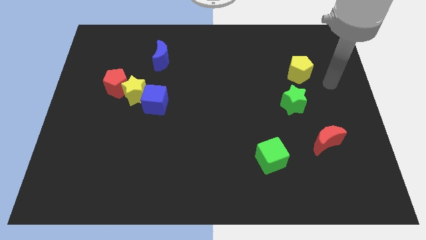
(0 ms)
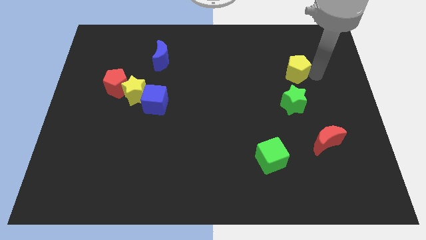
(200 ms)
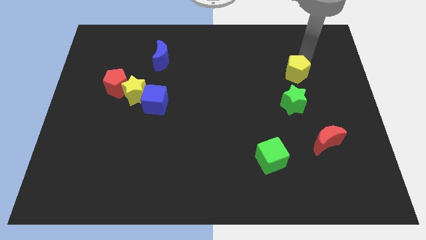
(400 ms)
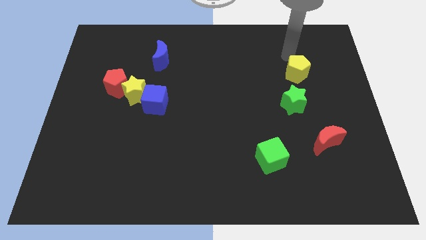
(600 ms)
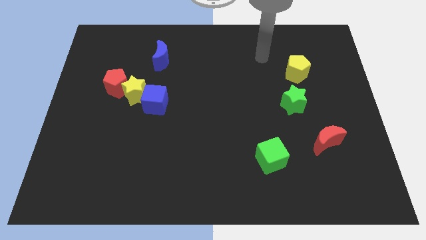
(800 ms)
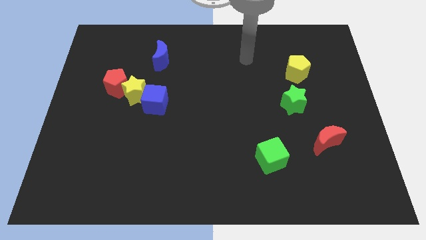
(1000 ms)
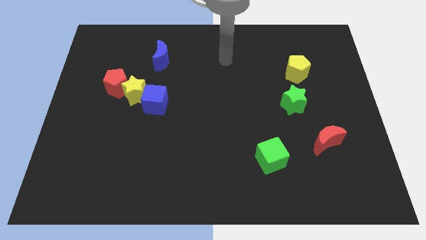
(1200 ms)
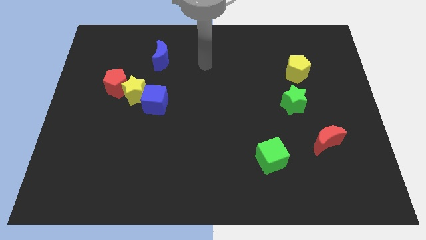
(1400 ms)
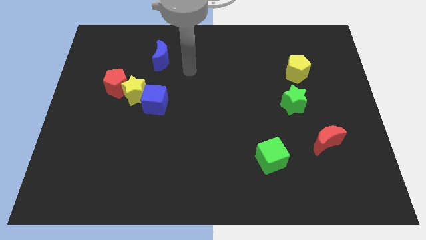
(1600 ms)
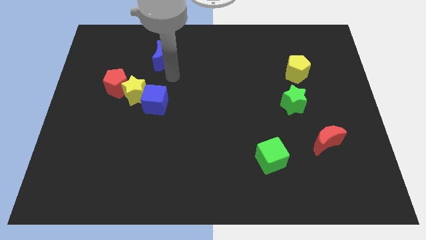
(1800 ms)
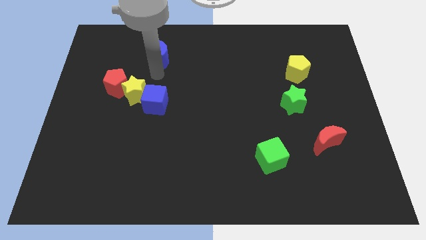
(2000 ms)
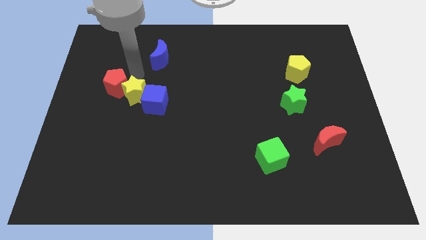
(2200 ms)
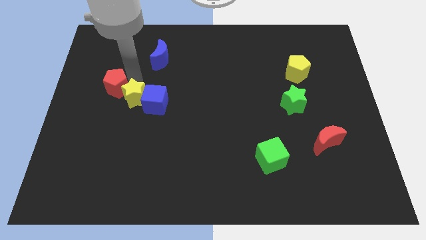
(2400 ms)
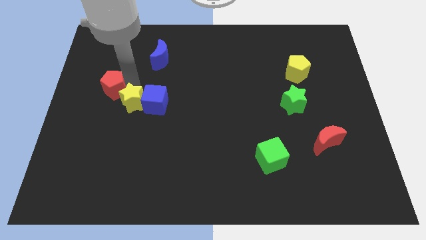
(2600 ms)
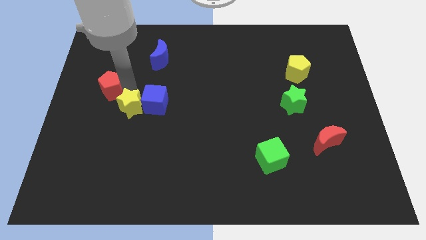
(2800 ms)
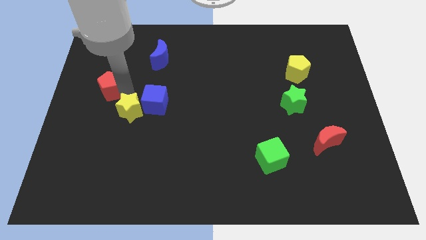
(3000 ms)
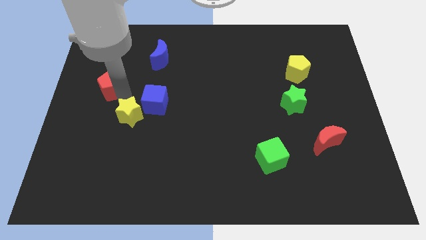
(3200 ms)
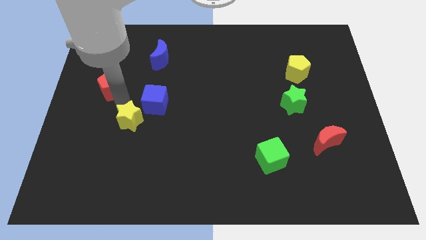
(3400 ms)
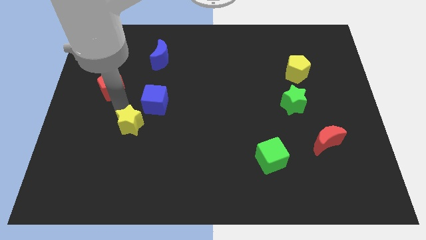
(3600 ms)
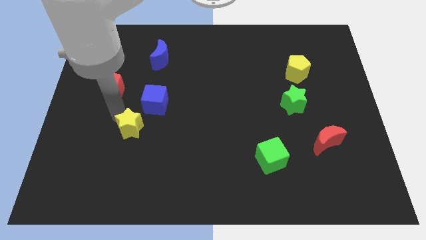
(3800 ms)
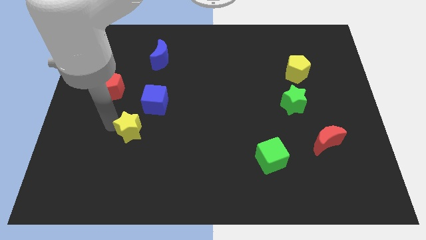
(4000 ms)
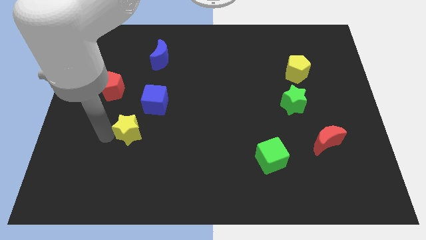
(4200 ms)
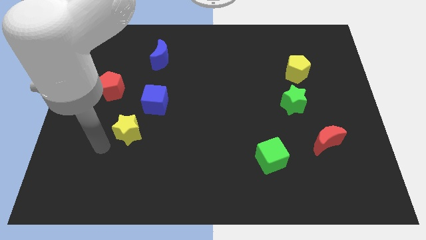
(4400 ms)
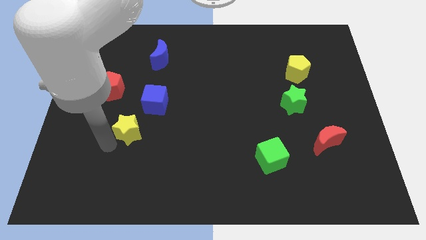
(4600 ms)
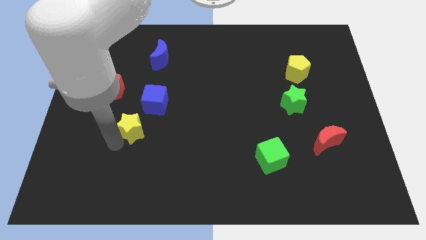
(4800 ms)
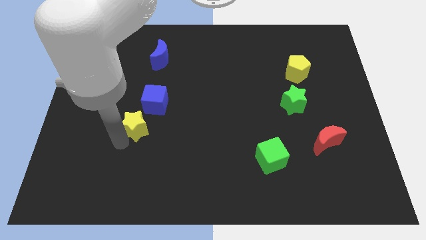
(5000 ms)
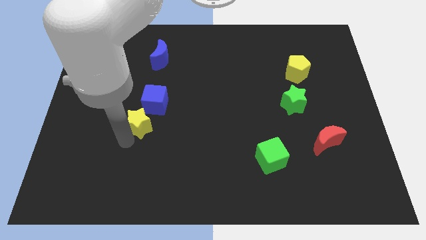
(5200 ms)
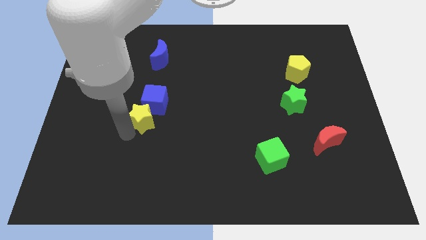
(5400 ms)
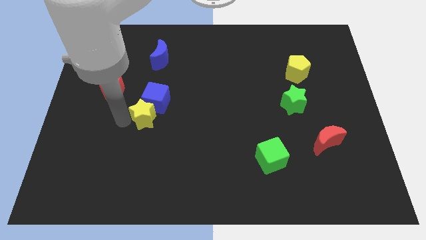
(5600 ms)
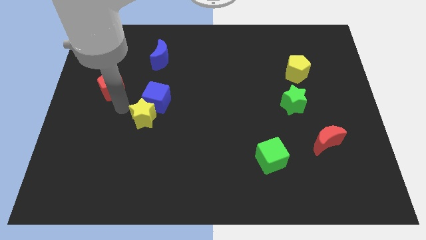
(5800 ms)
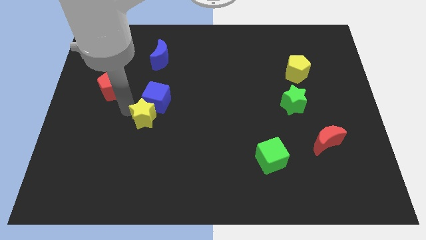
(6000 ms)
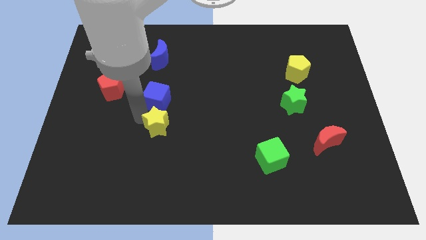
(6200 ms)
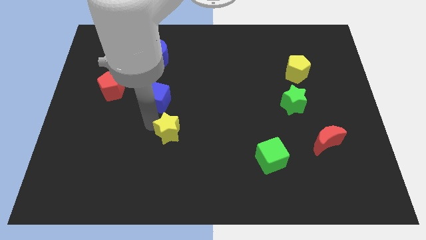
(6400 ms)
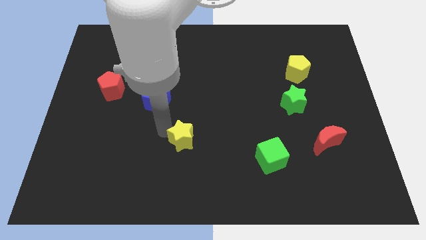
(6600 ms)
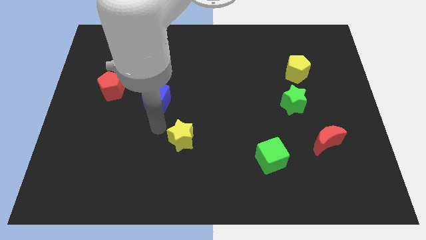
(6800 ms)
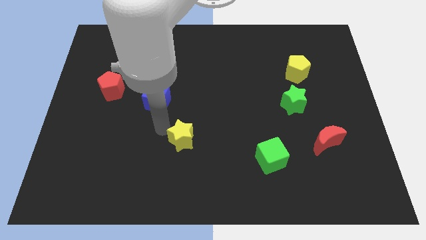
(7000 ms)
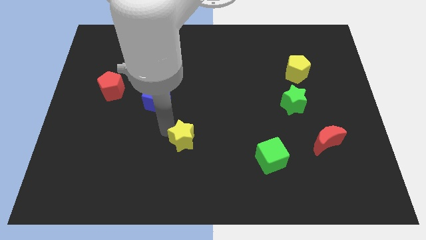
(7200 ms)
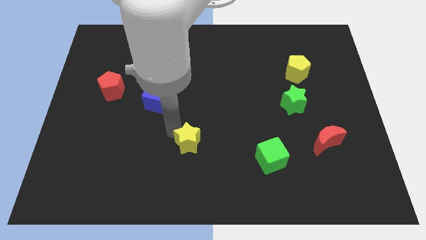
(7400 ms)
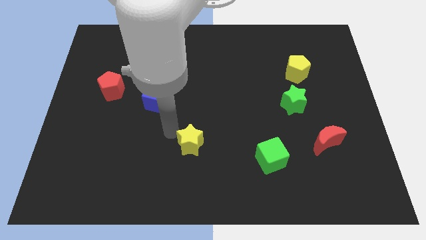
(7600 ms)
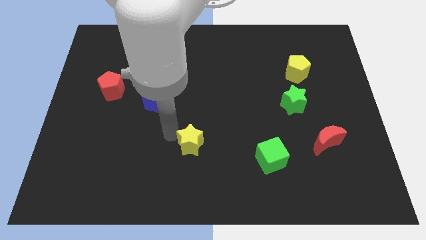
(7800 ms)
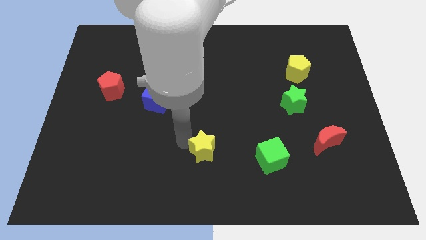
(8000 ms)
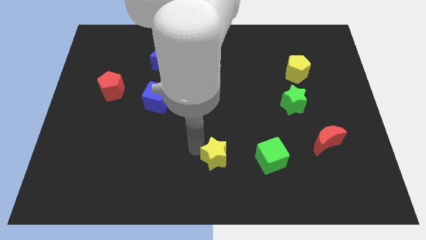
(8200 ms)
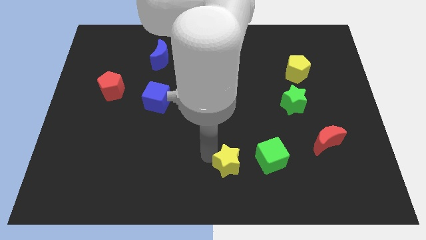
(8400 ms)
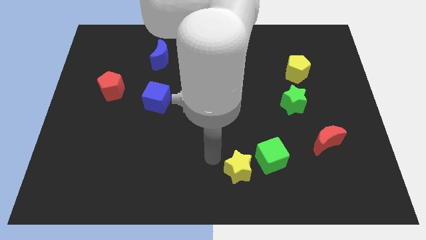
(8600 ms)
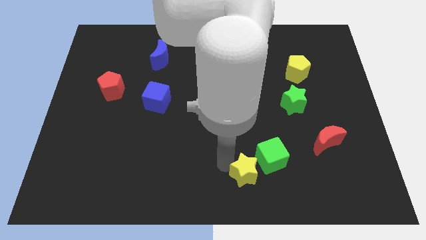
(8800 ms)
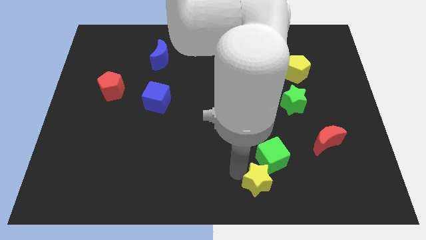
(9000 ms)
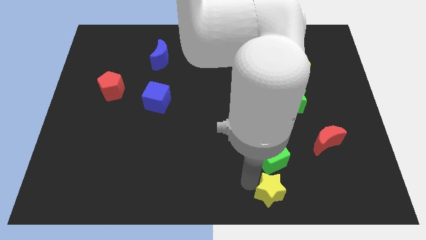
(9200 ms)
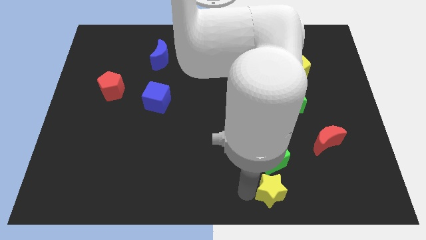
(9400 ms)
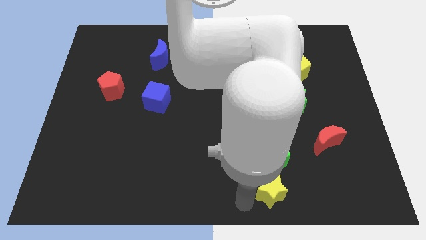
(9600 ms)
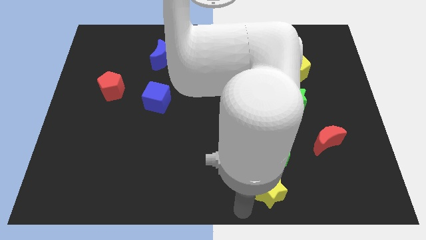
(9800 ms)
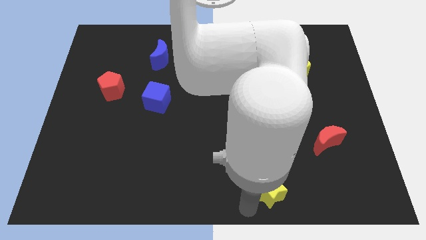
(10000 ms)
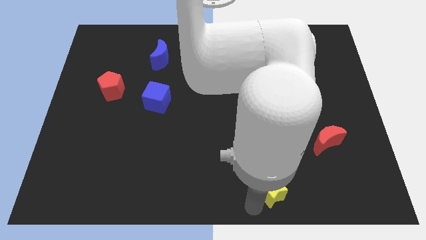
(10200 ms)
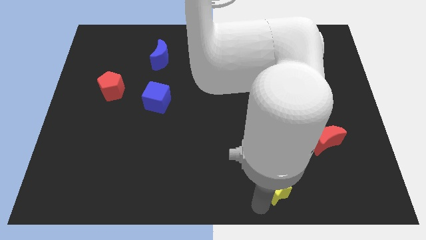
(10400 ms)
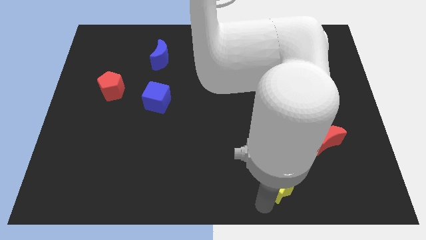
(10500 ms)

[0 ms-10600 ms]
push the yellow star diagonally down and to the right of the green cube
